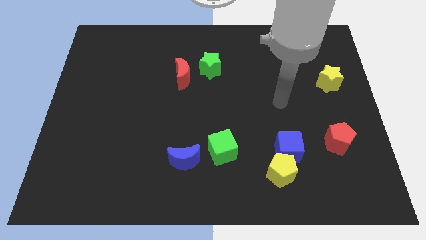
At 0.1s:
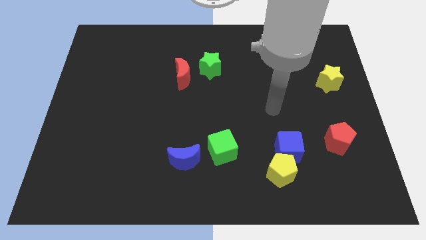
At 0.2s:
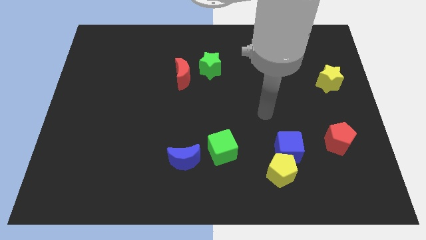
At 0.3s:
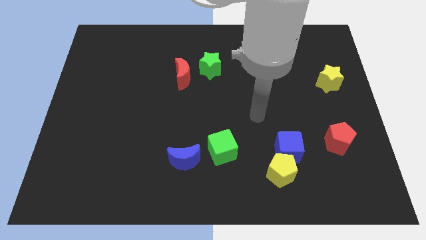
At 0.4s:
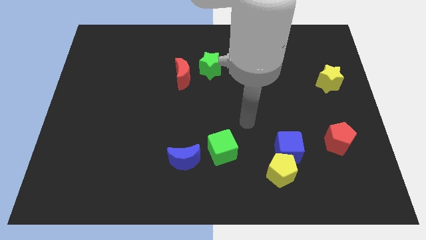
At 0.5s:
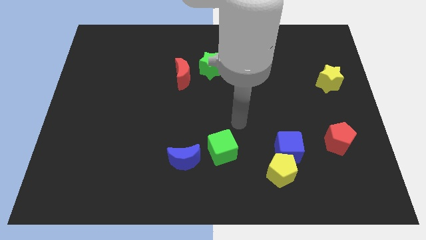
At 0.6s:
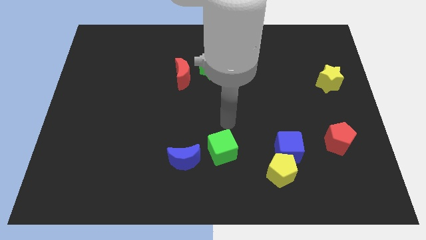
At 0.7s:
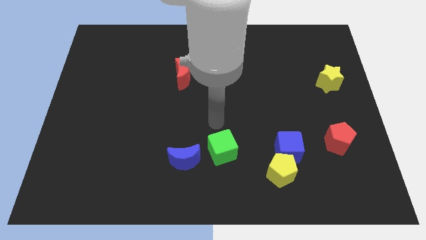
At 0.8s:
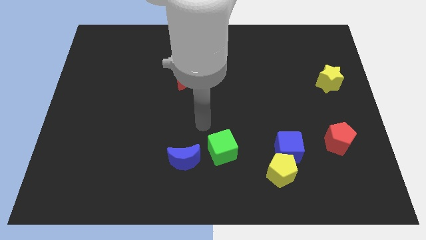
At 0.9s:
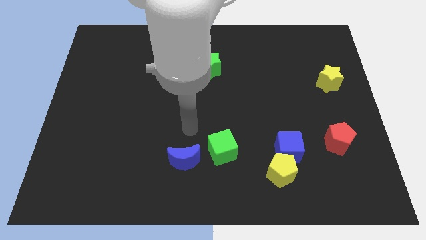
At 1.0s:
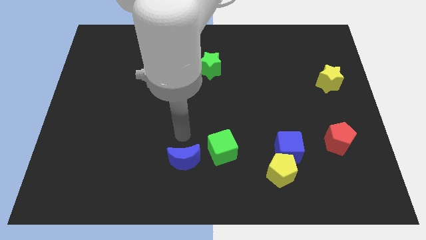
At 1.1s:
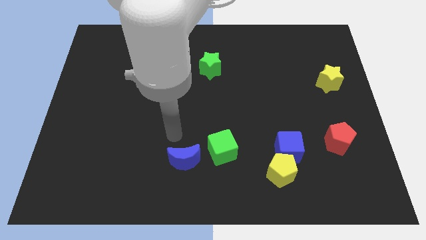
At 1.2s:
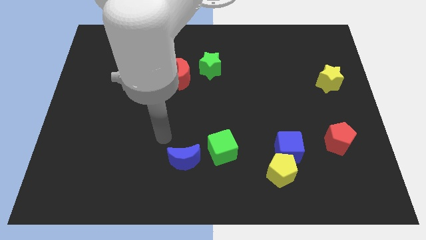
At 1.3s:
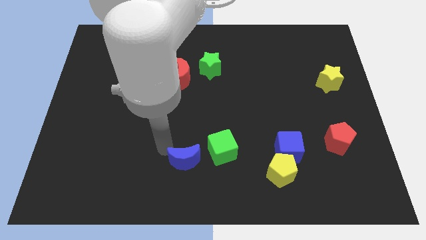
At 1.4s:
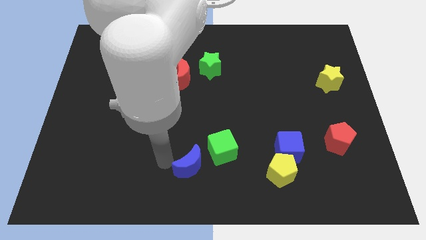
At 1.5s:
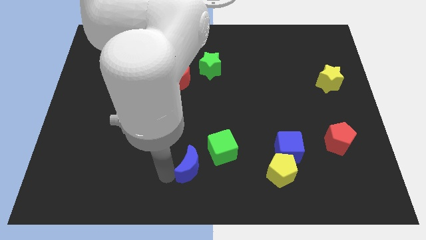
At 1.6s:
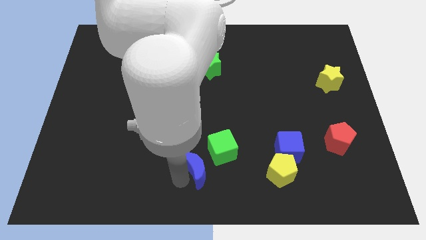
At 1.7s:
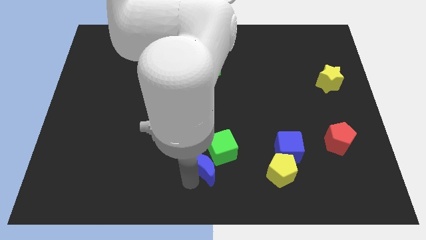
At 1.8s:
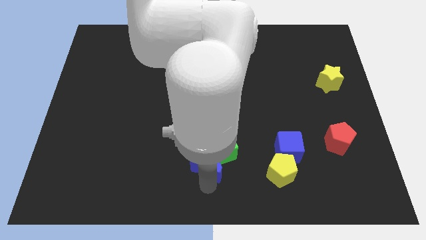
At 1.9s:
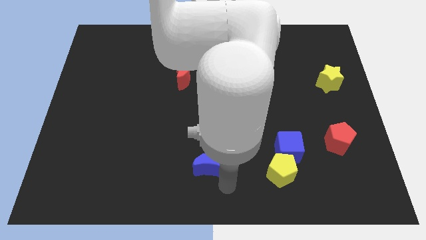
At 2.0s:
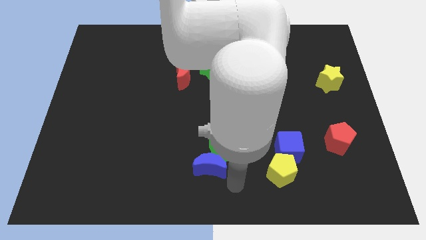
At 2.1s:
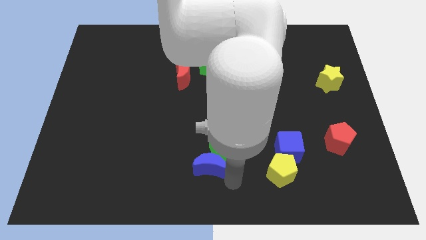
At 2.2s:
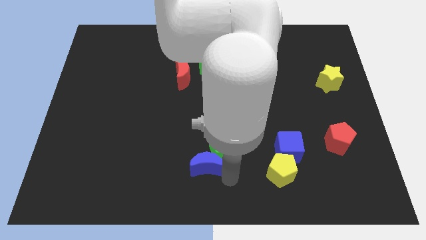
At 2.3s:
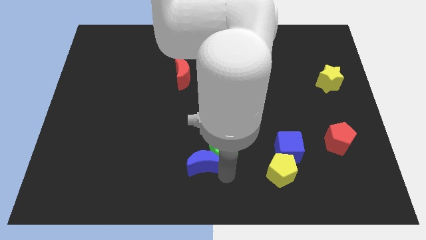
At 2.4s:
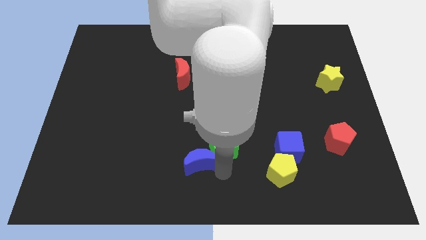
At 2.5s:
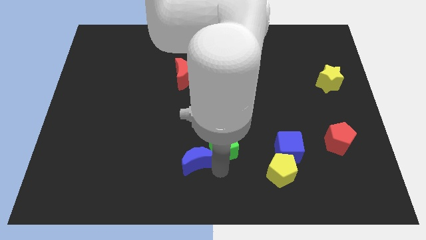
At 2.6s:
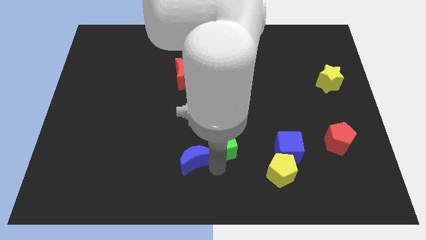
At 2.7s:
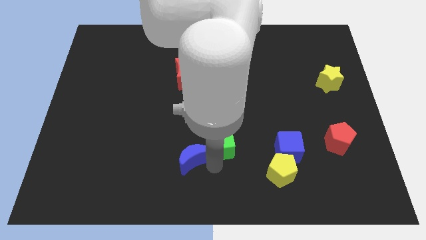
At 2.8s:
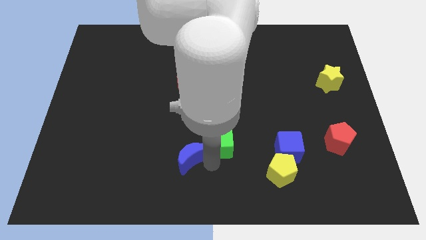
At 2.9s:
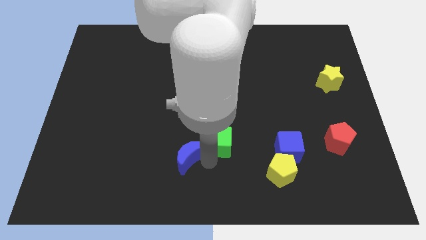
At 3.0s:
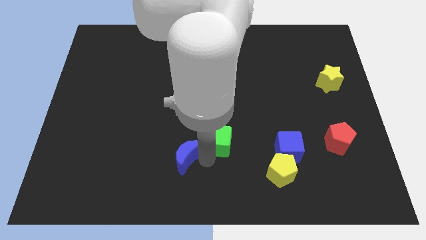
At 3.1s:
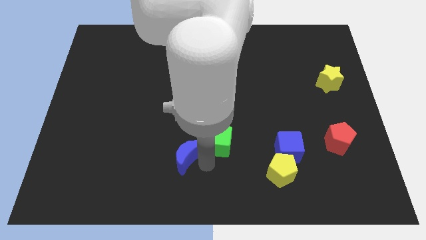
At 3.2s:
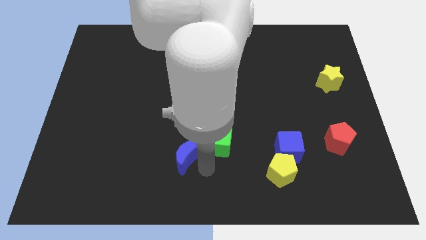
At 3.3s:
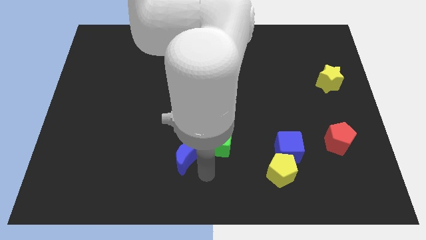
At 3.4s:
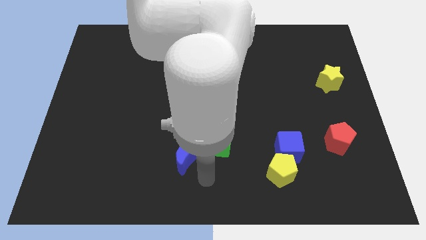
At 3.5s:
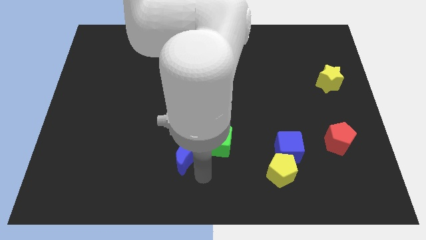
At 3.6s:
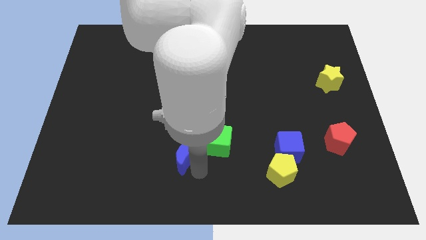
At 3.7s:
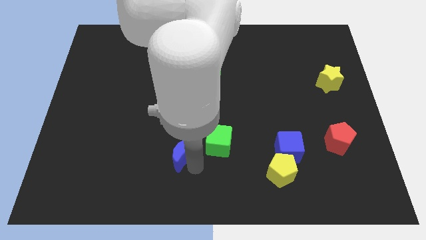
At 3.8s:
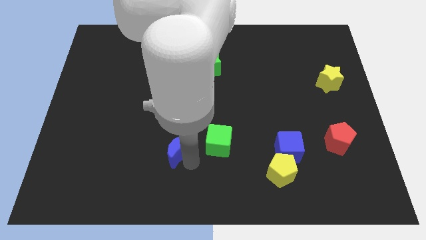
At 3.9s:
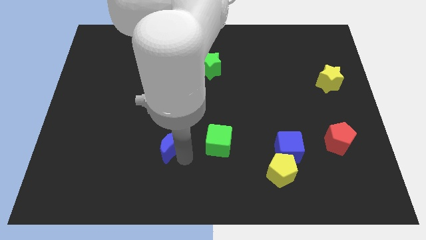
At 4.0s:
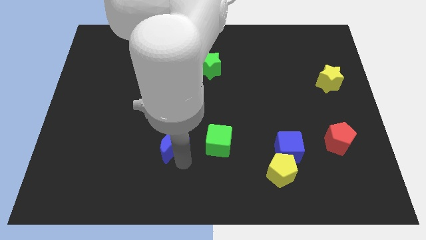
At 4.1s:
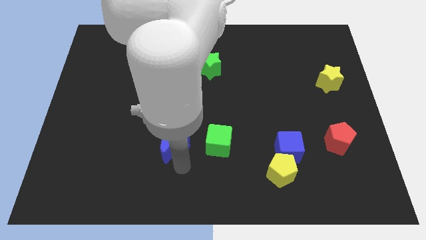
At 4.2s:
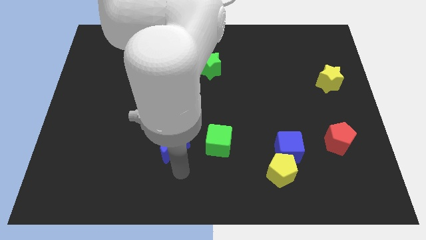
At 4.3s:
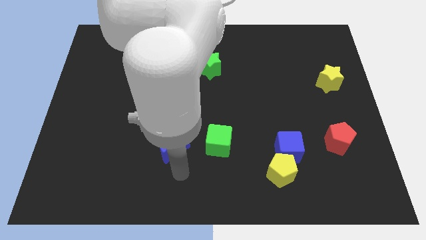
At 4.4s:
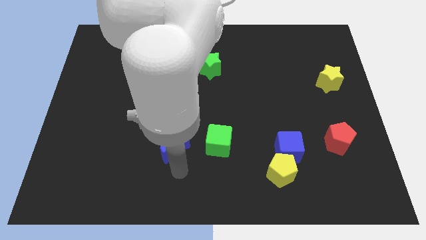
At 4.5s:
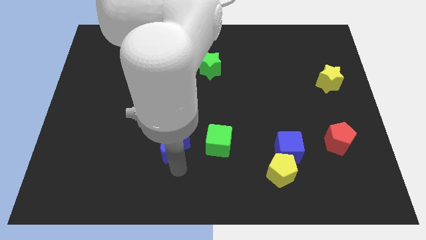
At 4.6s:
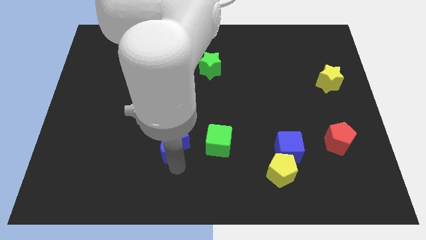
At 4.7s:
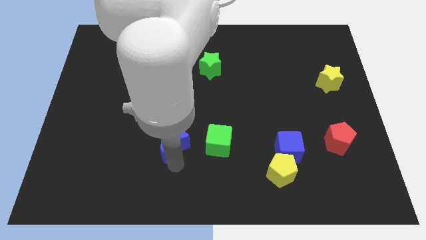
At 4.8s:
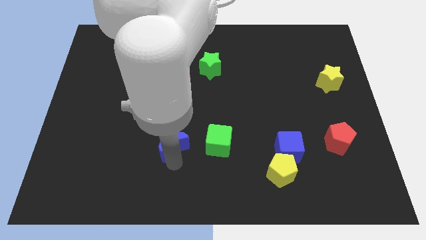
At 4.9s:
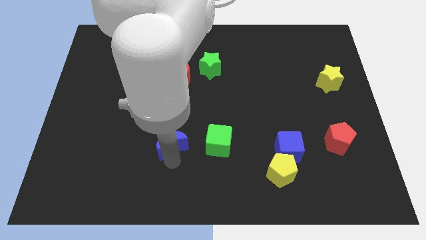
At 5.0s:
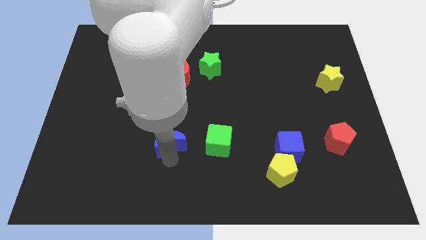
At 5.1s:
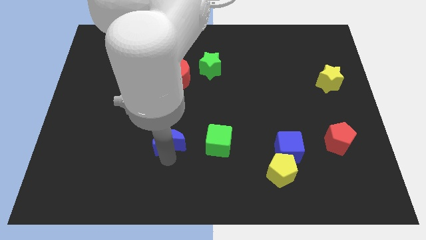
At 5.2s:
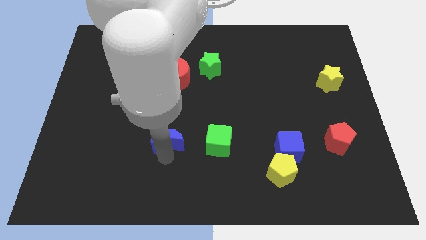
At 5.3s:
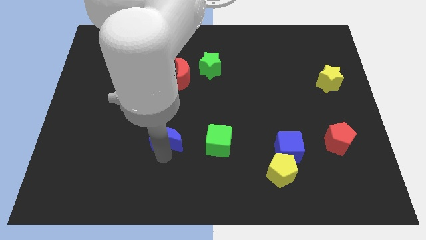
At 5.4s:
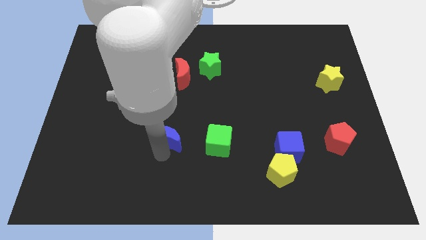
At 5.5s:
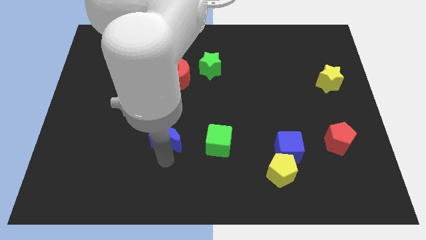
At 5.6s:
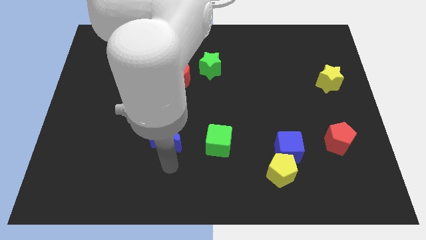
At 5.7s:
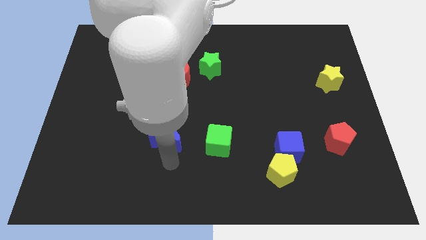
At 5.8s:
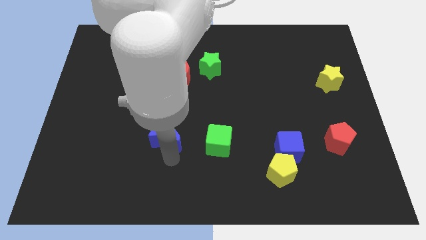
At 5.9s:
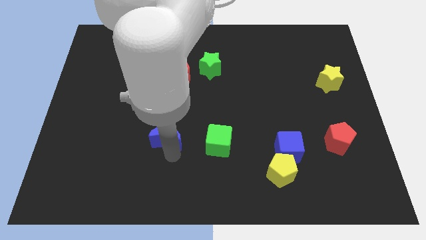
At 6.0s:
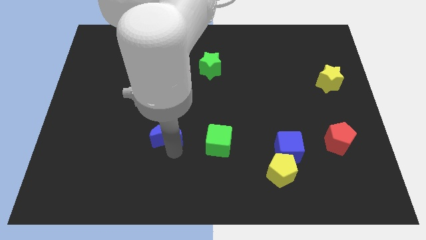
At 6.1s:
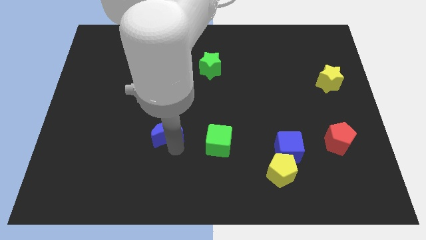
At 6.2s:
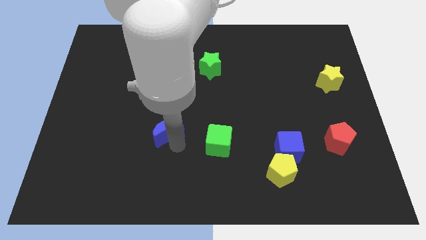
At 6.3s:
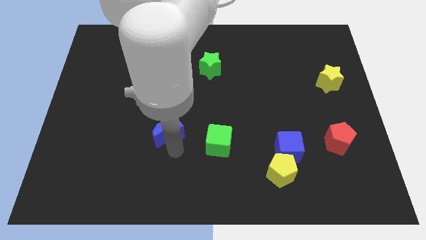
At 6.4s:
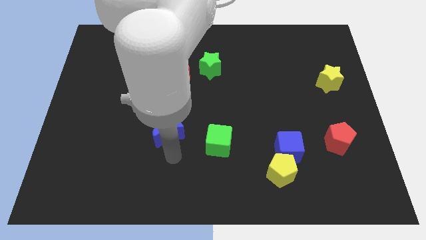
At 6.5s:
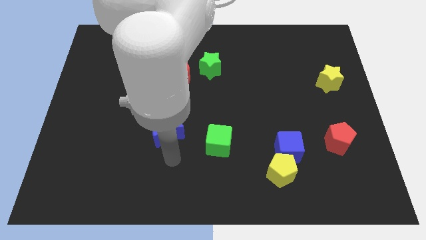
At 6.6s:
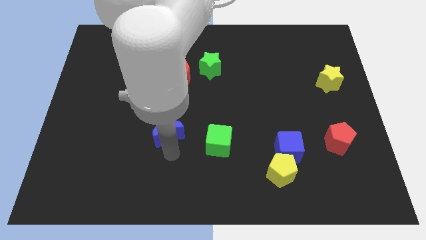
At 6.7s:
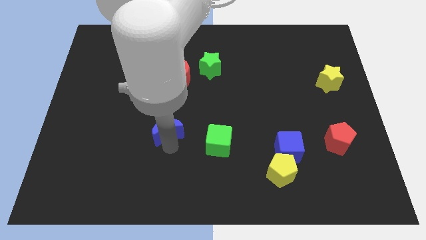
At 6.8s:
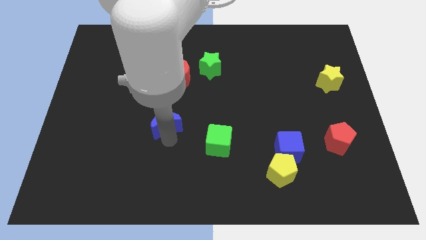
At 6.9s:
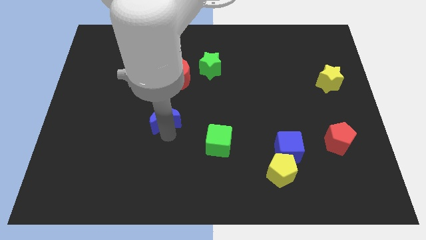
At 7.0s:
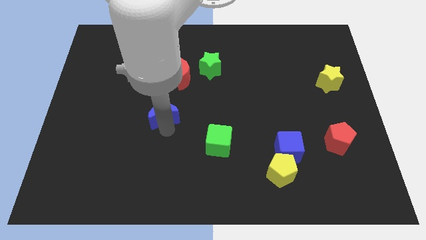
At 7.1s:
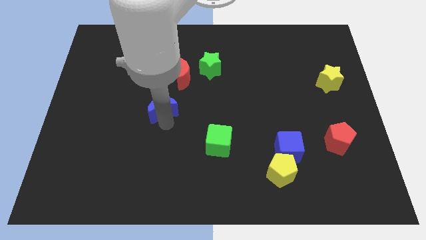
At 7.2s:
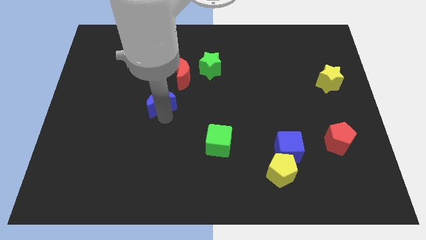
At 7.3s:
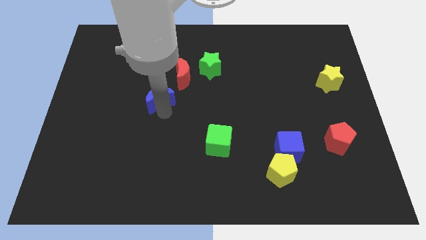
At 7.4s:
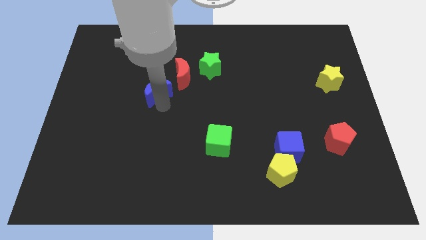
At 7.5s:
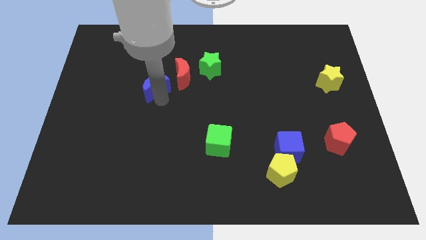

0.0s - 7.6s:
slide the blue moon left of the red moon
